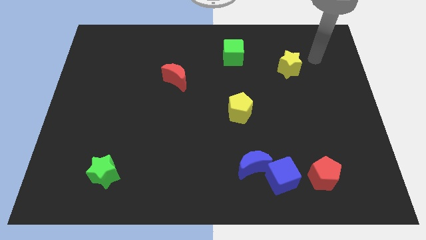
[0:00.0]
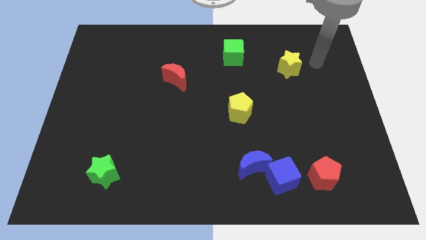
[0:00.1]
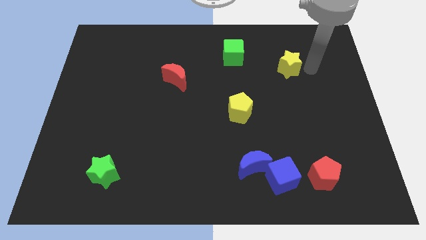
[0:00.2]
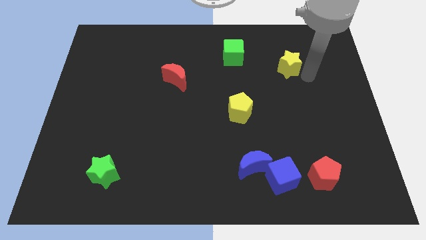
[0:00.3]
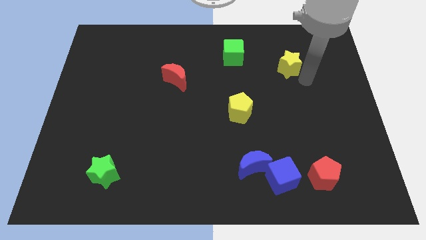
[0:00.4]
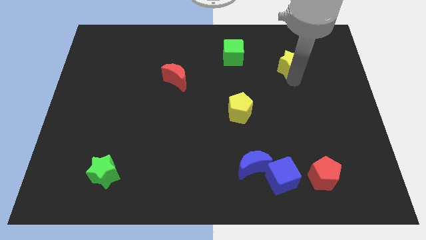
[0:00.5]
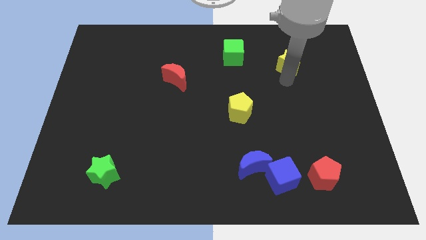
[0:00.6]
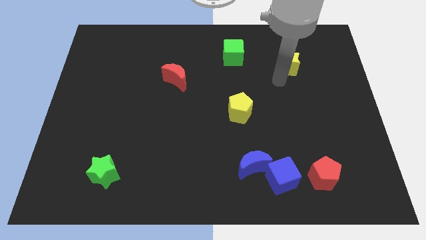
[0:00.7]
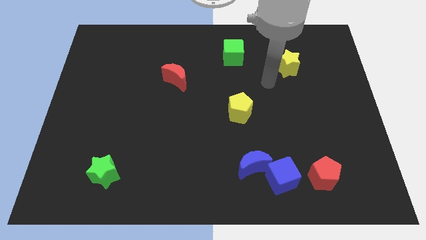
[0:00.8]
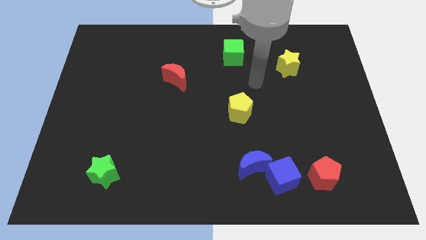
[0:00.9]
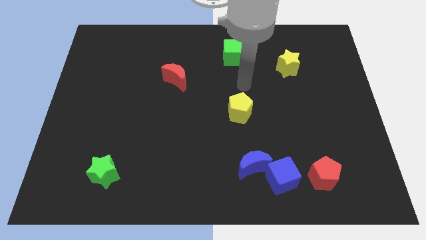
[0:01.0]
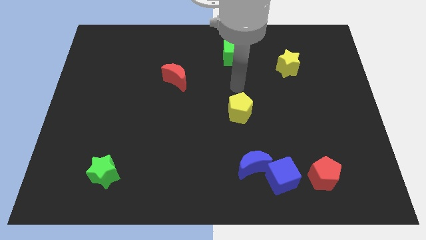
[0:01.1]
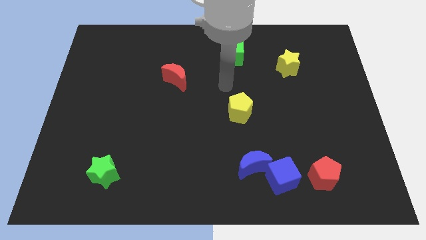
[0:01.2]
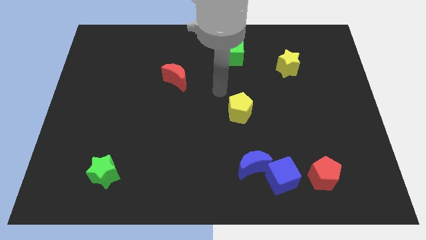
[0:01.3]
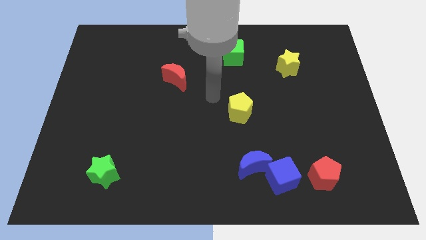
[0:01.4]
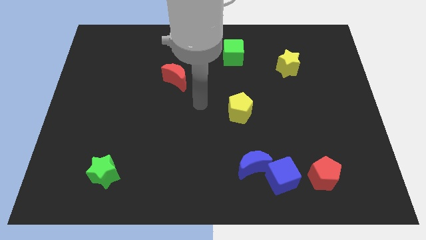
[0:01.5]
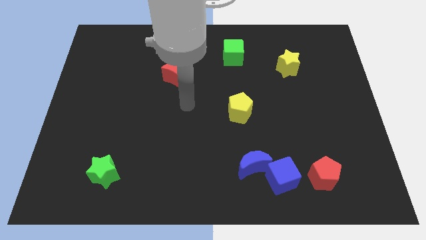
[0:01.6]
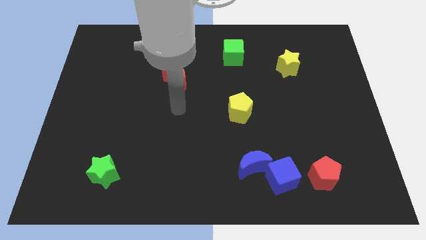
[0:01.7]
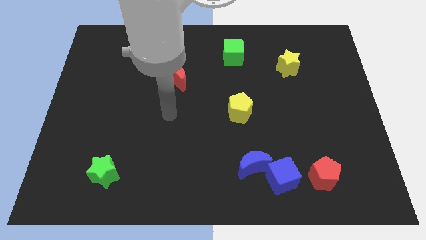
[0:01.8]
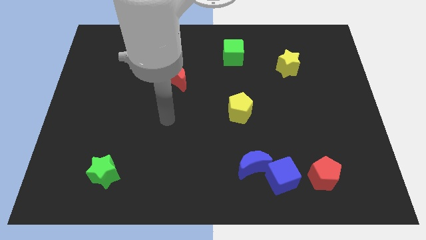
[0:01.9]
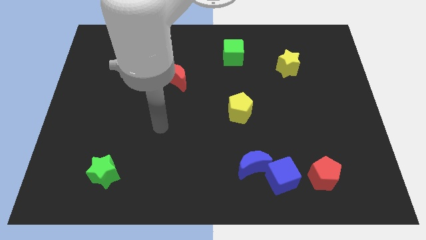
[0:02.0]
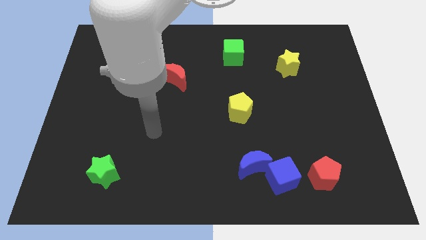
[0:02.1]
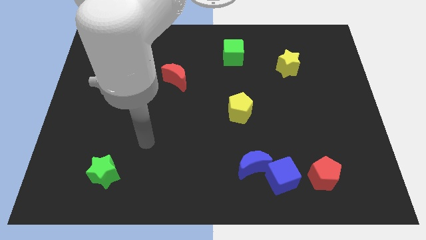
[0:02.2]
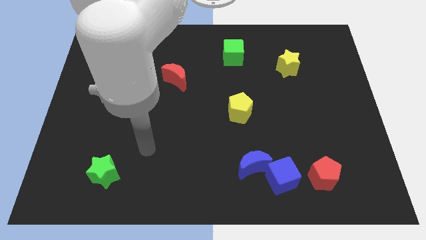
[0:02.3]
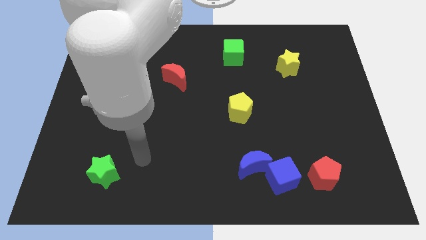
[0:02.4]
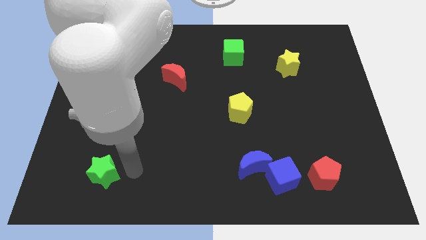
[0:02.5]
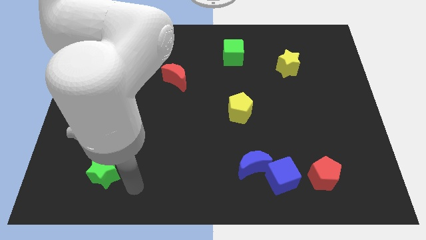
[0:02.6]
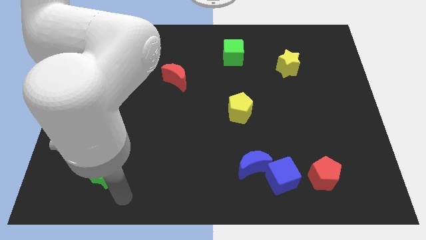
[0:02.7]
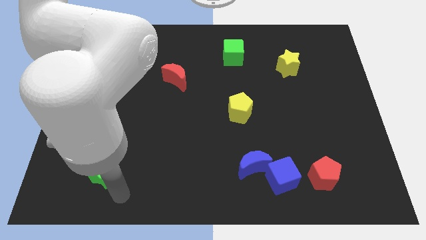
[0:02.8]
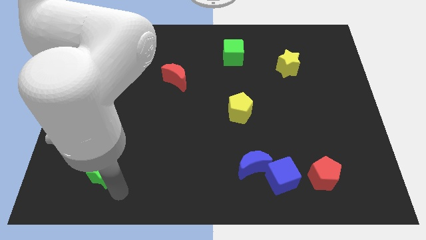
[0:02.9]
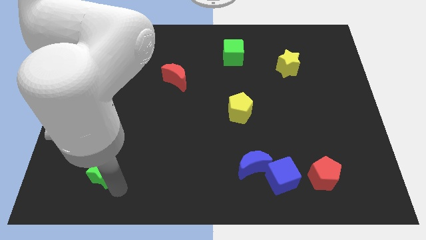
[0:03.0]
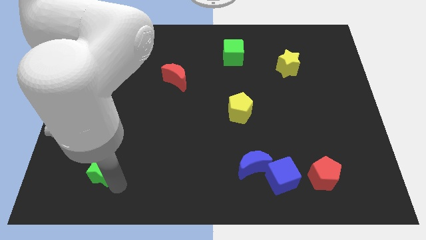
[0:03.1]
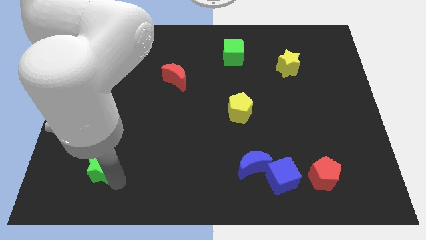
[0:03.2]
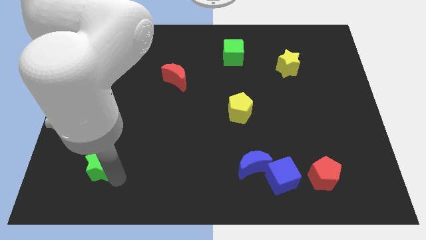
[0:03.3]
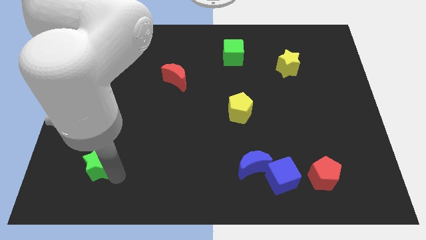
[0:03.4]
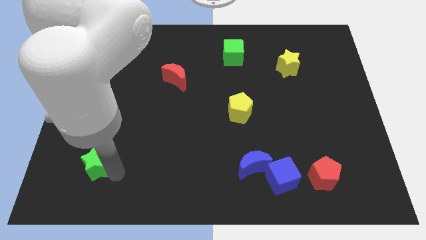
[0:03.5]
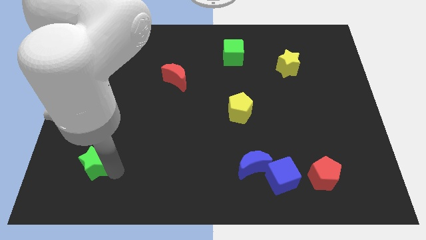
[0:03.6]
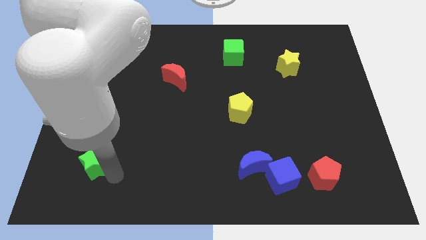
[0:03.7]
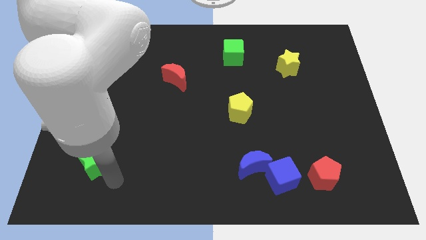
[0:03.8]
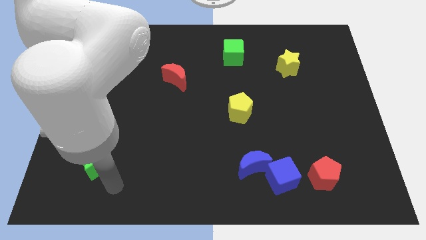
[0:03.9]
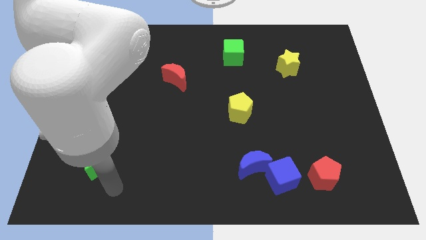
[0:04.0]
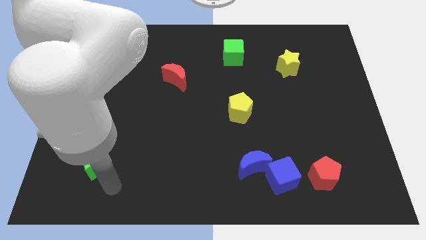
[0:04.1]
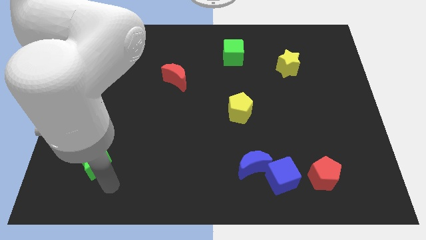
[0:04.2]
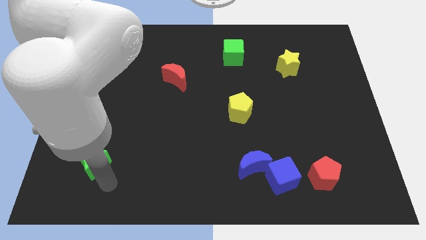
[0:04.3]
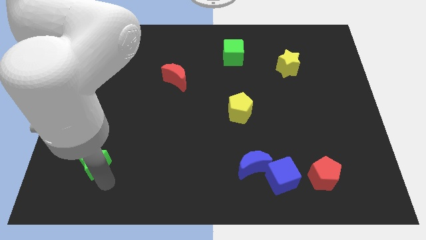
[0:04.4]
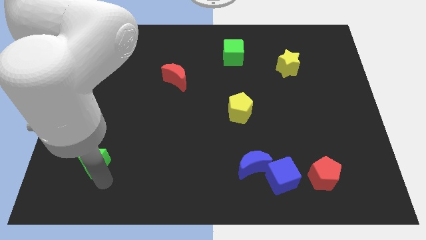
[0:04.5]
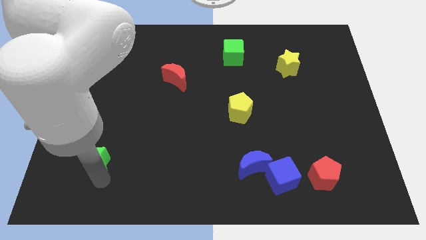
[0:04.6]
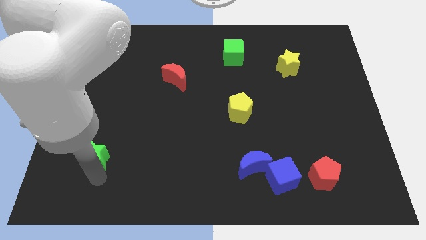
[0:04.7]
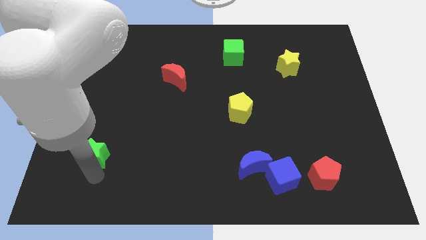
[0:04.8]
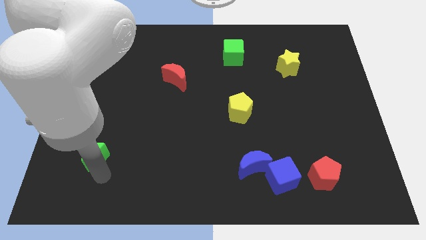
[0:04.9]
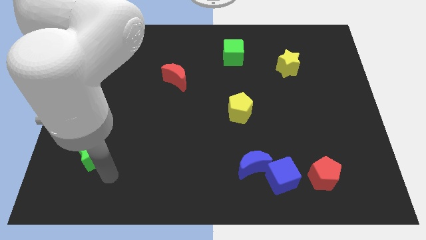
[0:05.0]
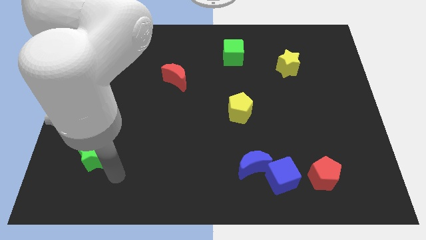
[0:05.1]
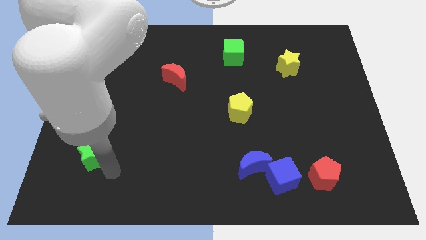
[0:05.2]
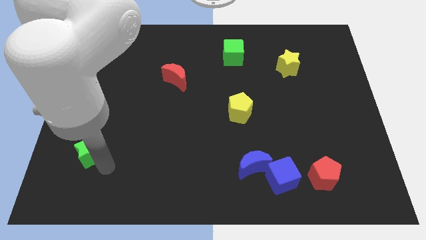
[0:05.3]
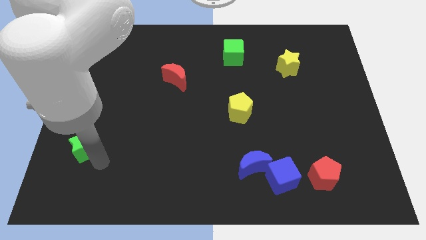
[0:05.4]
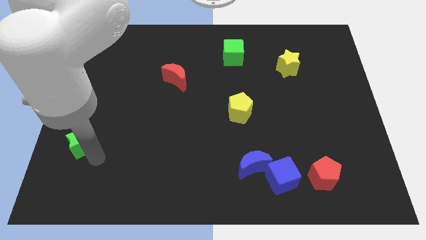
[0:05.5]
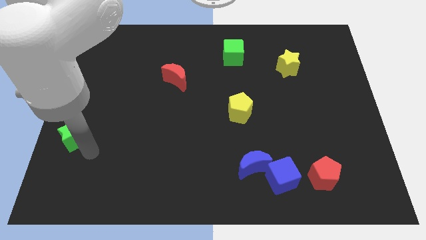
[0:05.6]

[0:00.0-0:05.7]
move the green star to the left side of the board

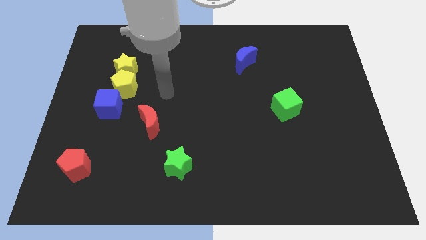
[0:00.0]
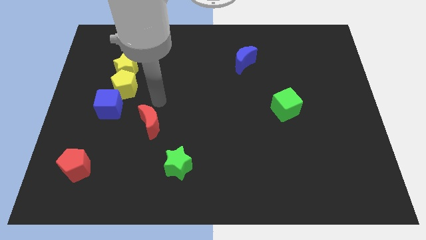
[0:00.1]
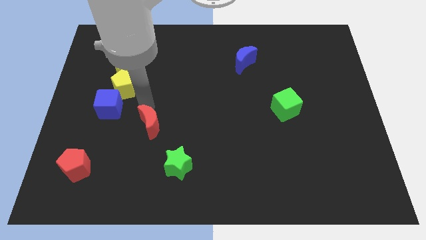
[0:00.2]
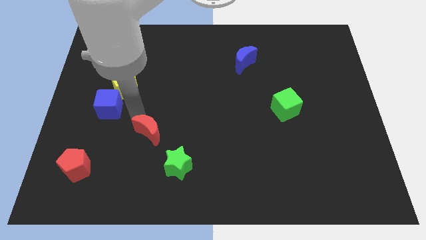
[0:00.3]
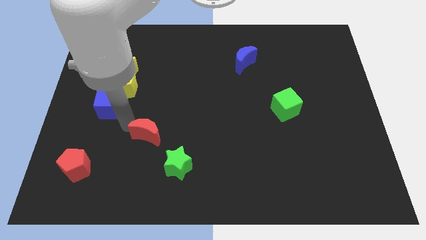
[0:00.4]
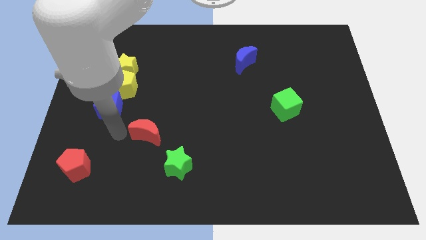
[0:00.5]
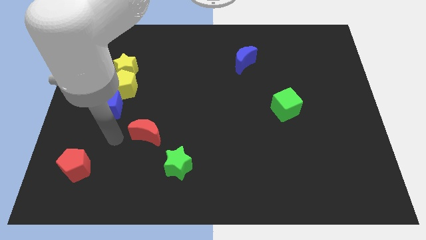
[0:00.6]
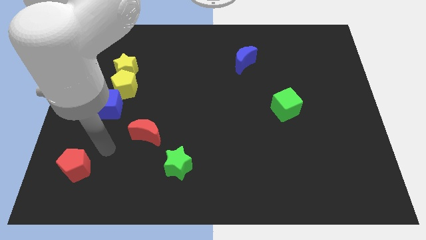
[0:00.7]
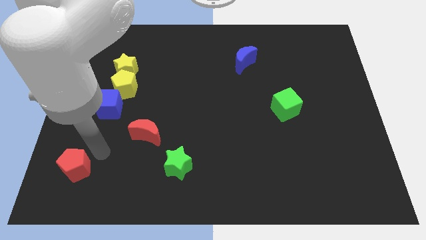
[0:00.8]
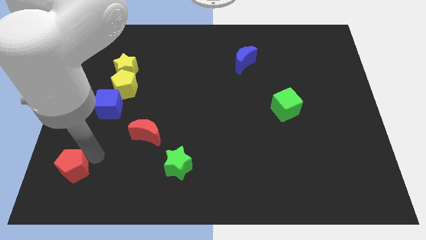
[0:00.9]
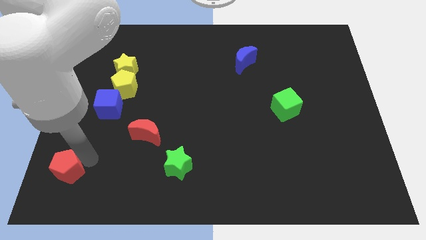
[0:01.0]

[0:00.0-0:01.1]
push the red pentagon to the bottom left of the board
